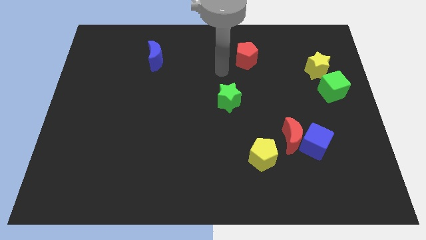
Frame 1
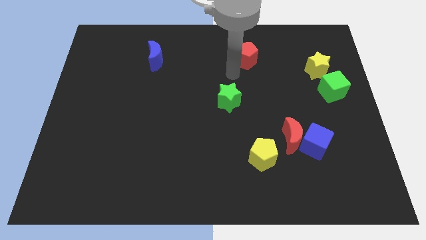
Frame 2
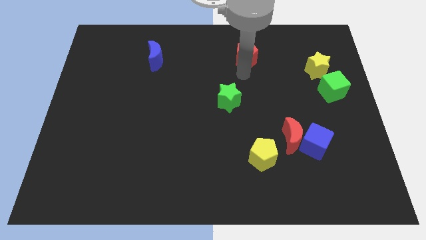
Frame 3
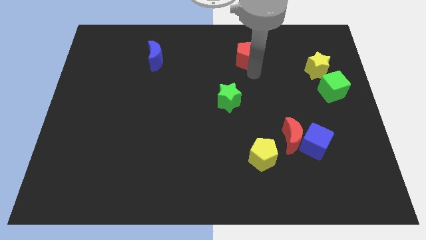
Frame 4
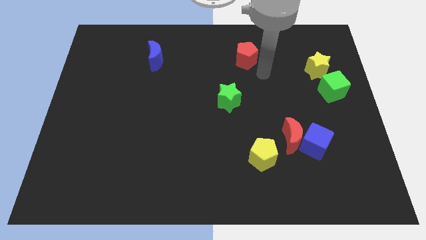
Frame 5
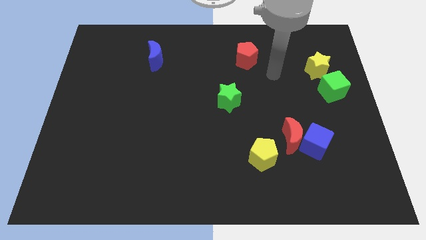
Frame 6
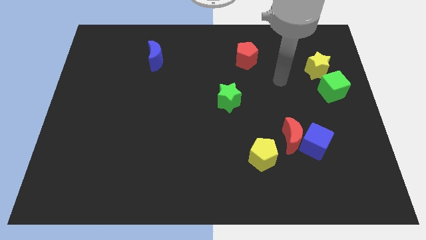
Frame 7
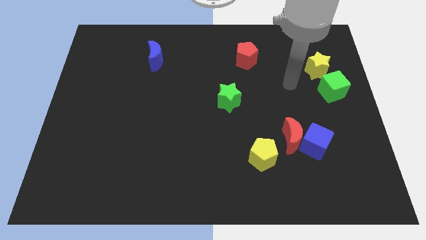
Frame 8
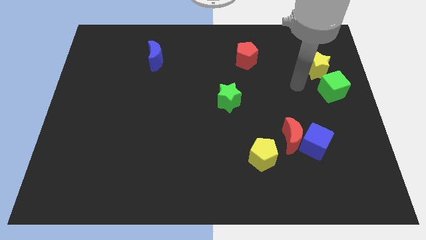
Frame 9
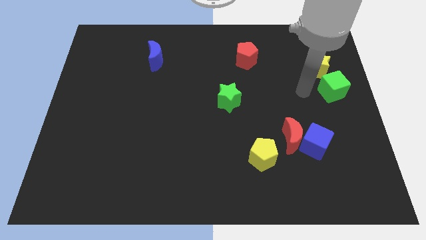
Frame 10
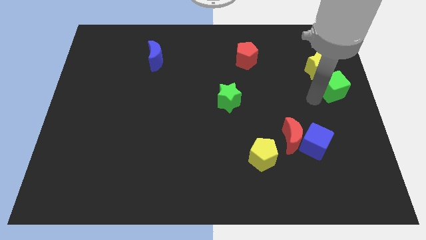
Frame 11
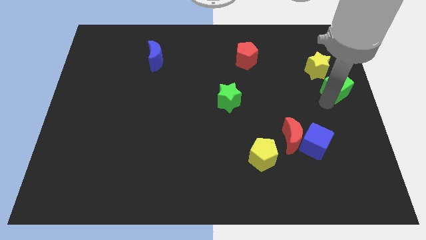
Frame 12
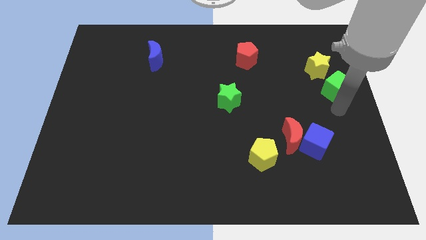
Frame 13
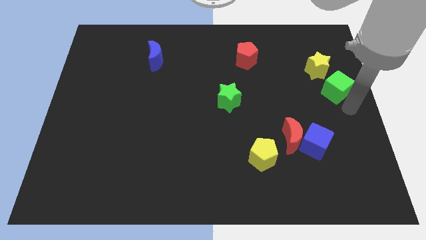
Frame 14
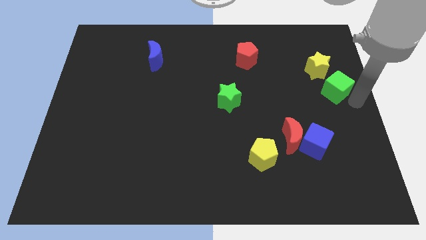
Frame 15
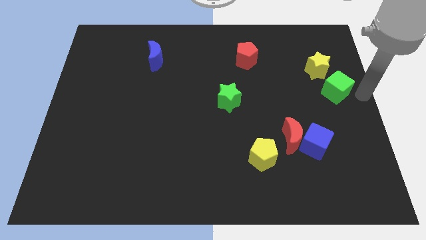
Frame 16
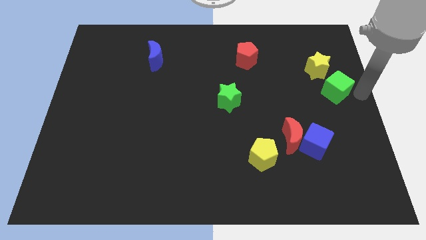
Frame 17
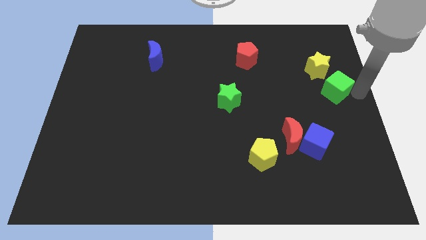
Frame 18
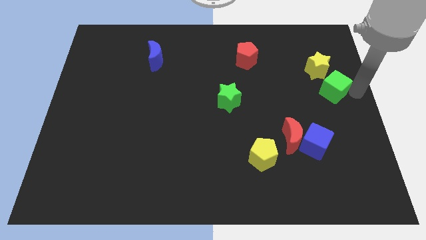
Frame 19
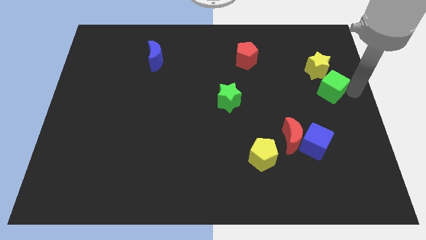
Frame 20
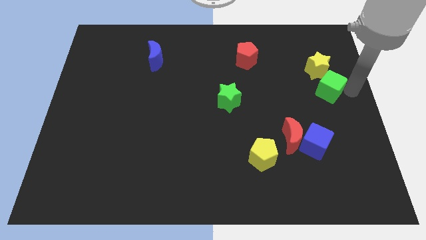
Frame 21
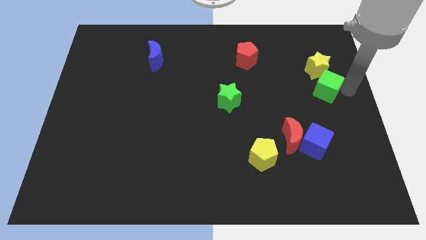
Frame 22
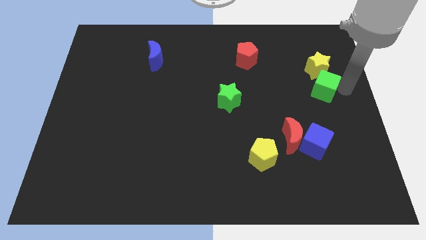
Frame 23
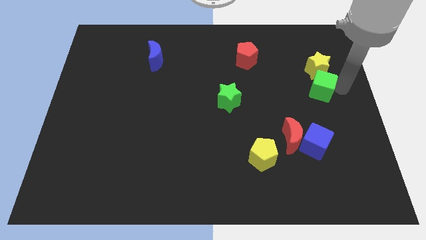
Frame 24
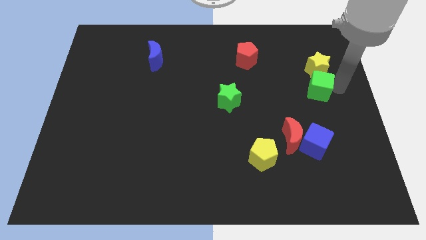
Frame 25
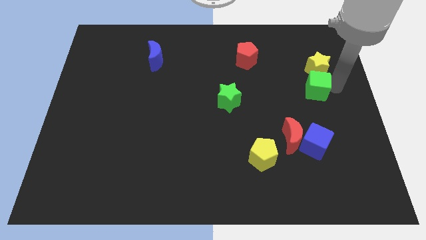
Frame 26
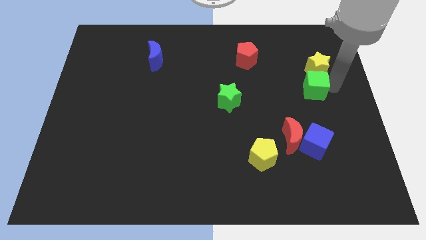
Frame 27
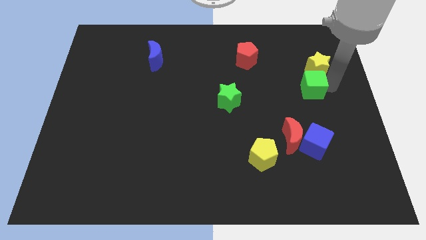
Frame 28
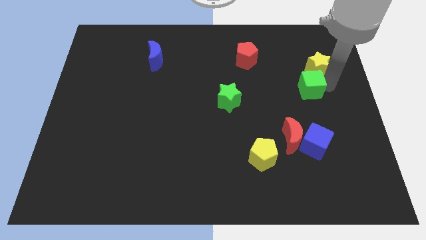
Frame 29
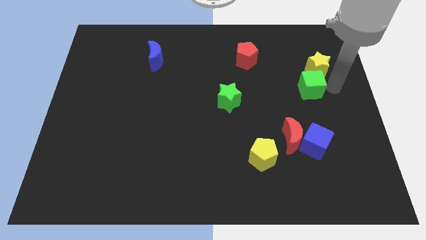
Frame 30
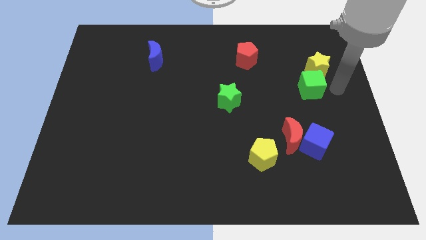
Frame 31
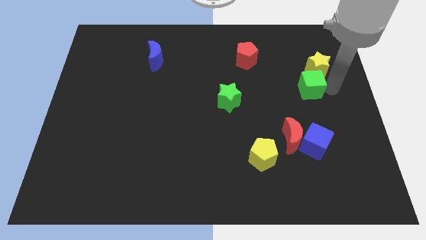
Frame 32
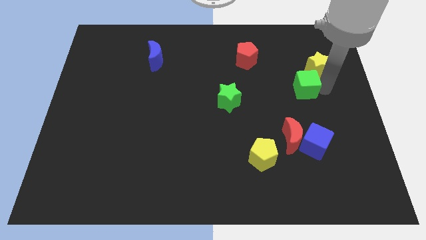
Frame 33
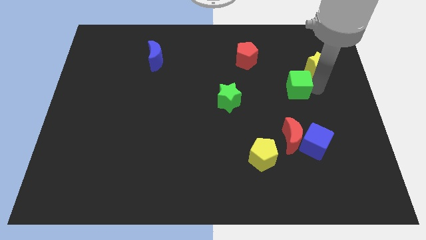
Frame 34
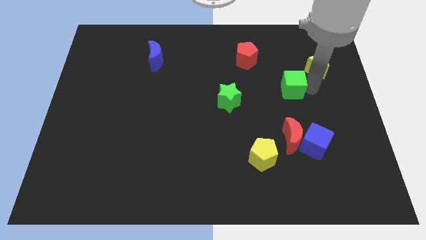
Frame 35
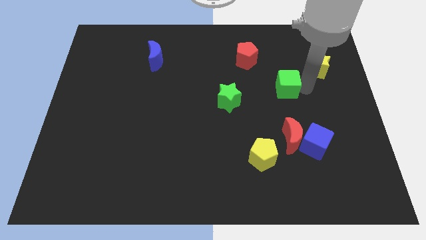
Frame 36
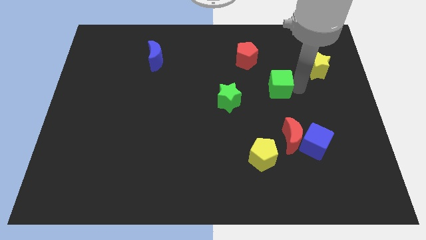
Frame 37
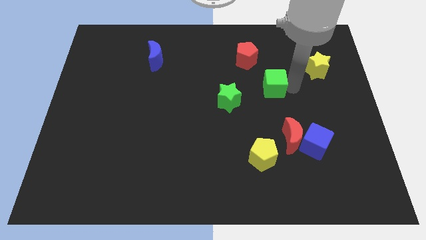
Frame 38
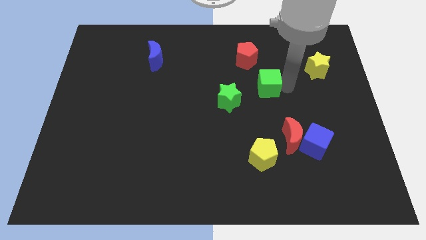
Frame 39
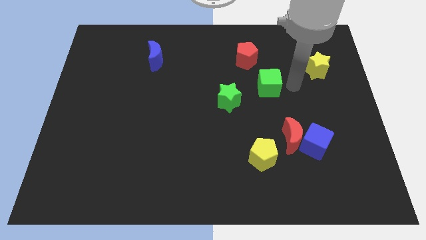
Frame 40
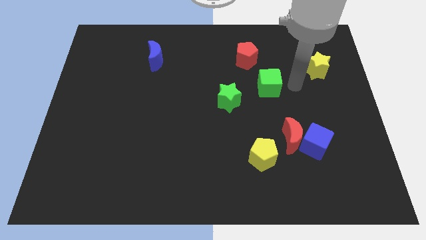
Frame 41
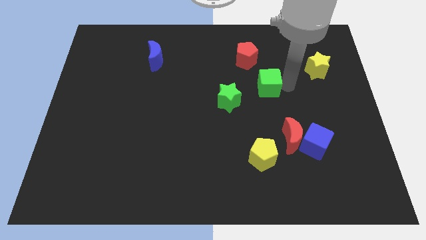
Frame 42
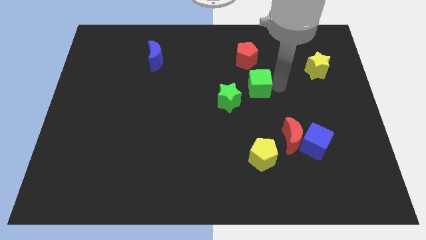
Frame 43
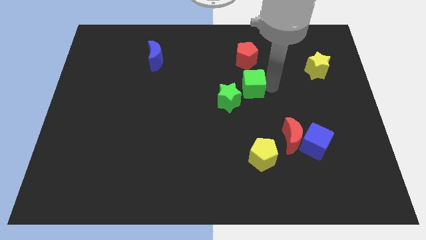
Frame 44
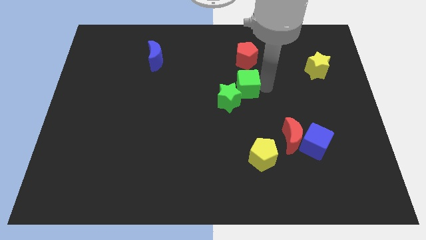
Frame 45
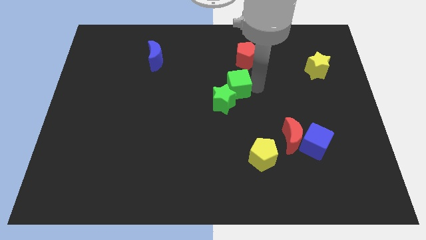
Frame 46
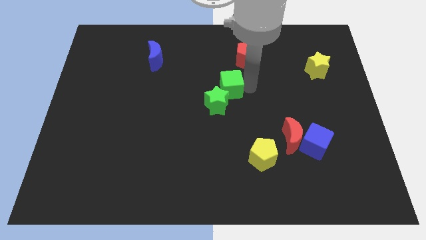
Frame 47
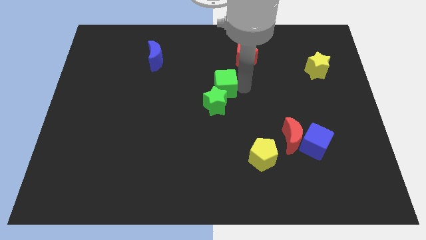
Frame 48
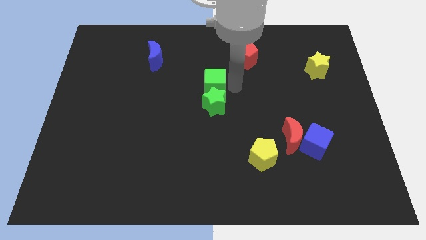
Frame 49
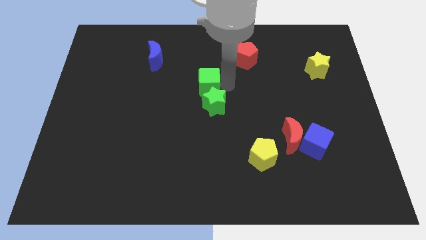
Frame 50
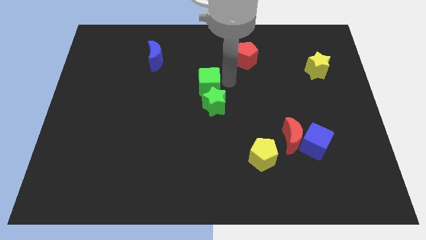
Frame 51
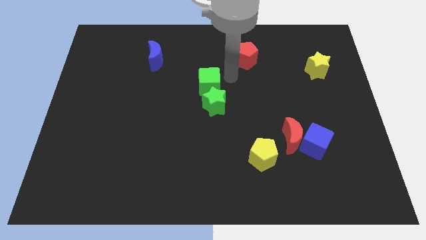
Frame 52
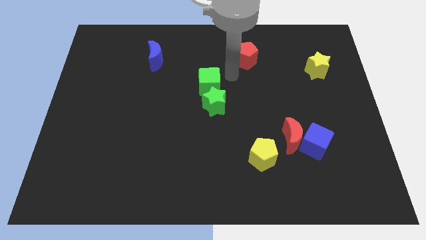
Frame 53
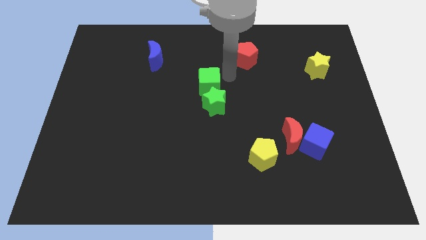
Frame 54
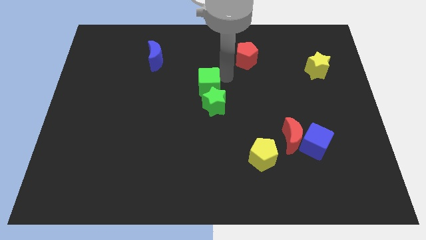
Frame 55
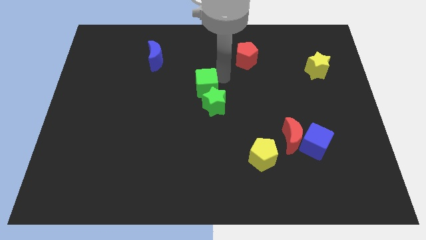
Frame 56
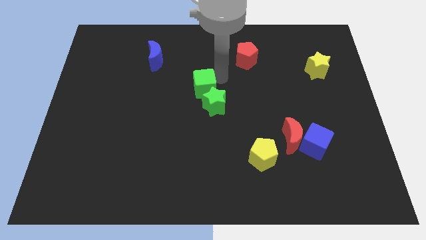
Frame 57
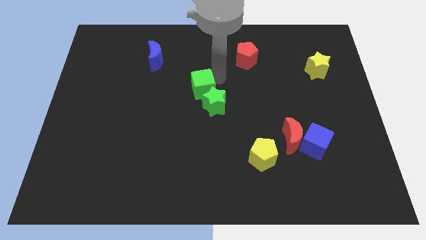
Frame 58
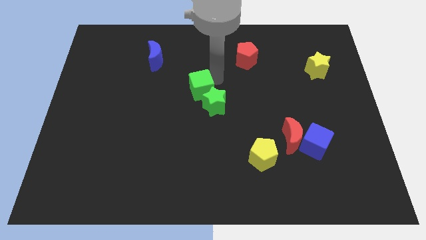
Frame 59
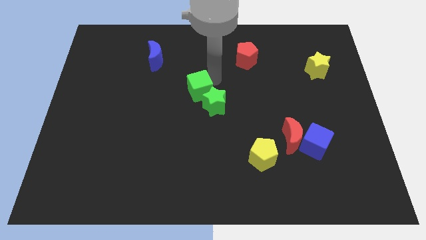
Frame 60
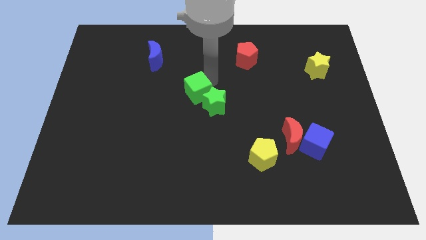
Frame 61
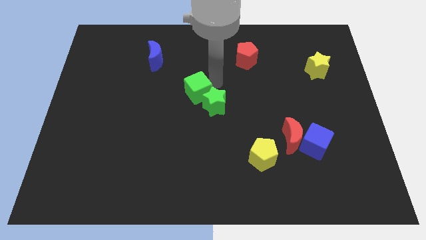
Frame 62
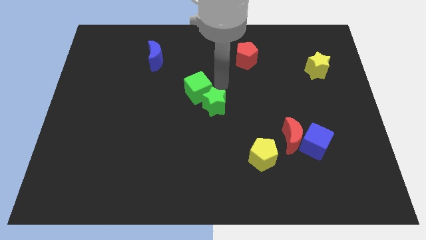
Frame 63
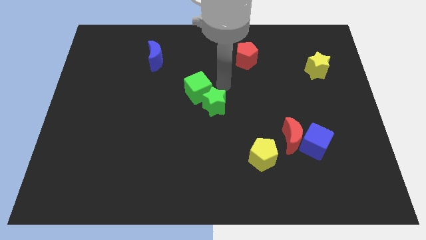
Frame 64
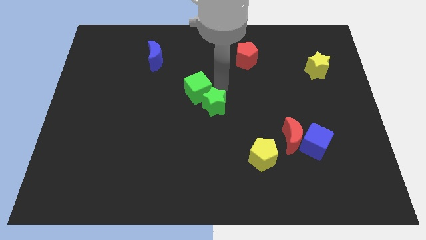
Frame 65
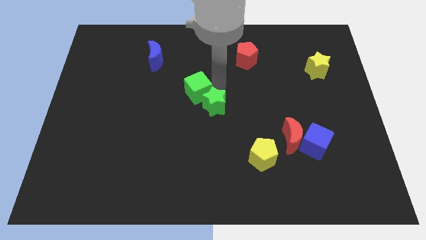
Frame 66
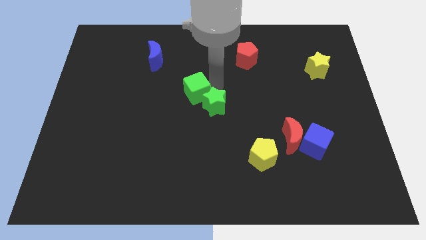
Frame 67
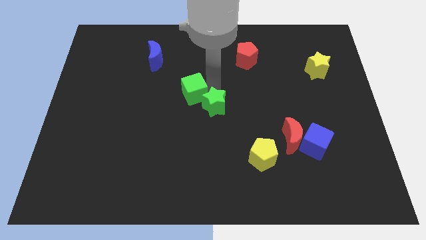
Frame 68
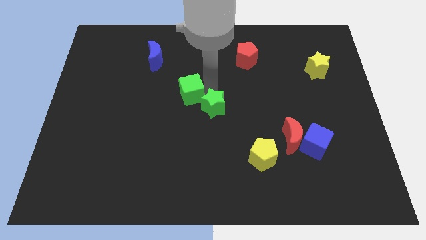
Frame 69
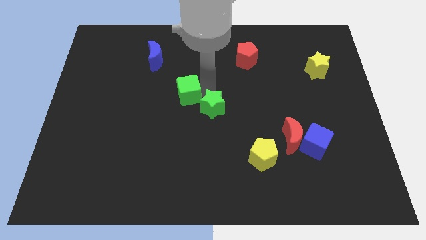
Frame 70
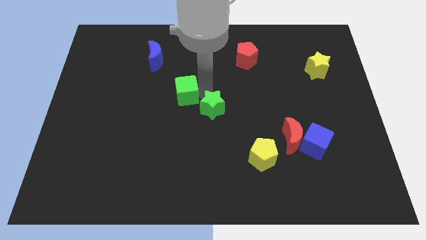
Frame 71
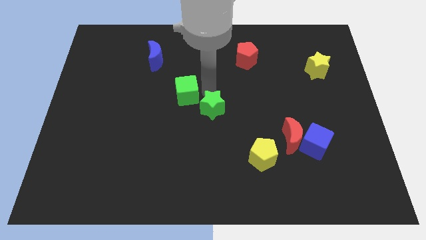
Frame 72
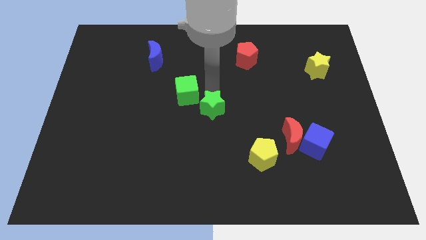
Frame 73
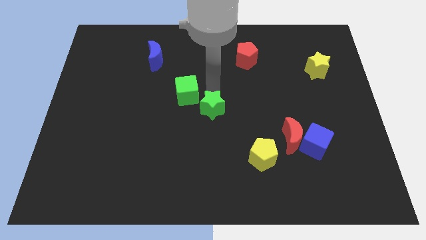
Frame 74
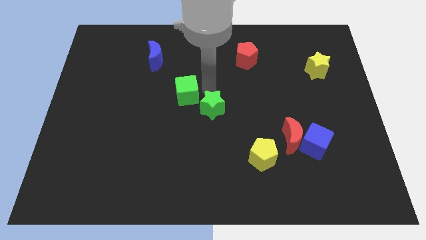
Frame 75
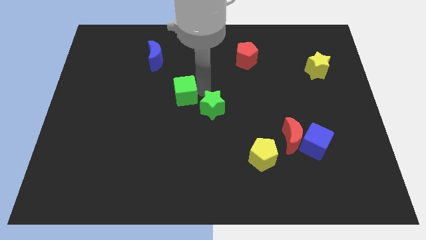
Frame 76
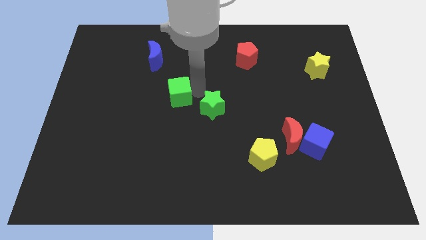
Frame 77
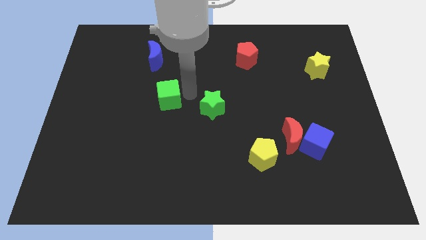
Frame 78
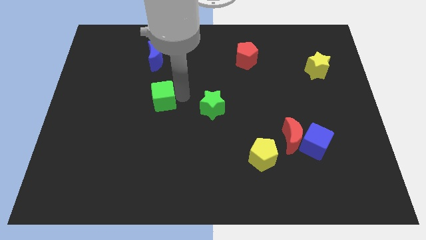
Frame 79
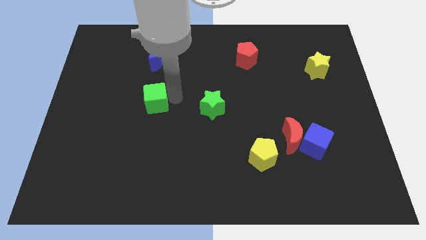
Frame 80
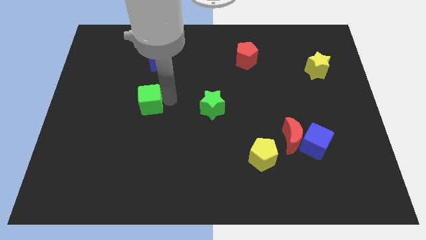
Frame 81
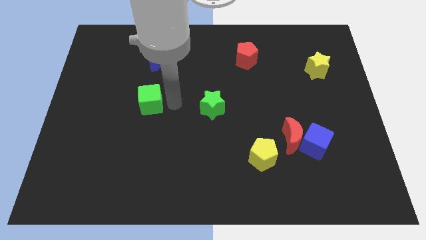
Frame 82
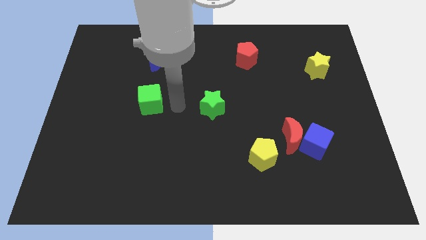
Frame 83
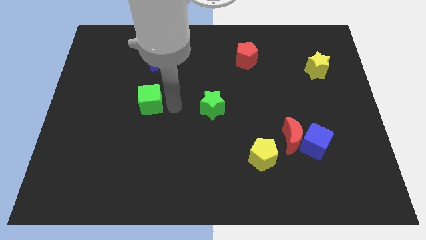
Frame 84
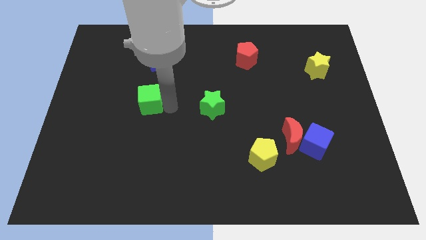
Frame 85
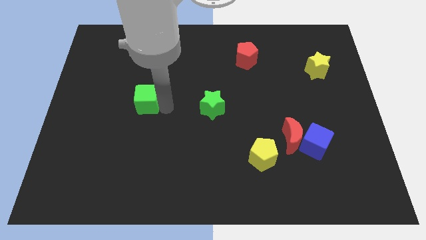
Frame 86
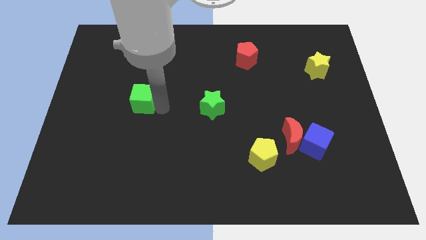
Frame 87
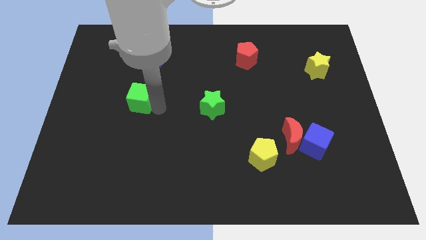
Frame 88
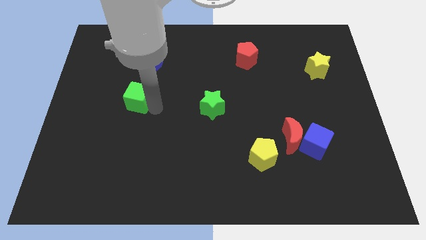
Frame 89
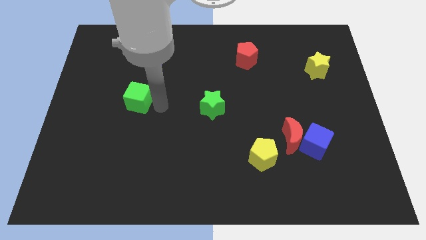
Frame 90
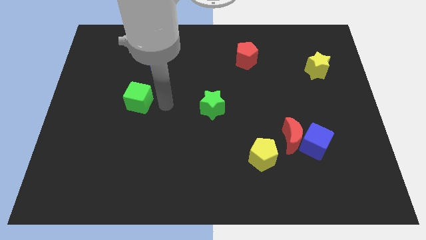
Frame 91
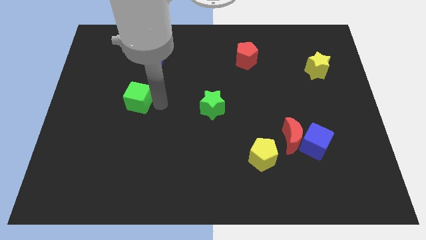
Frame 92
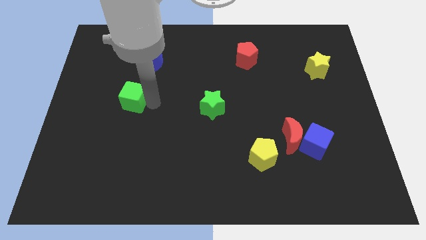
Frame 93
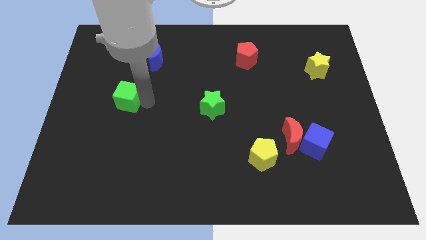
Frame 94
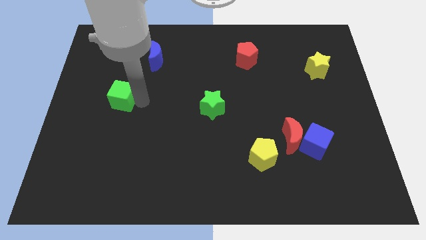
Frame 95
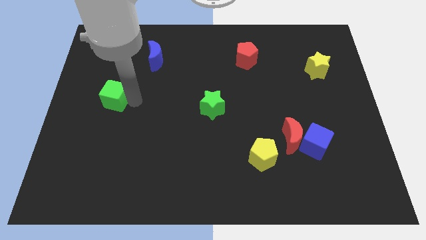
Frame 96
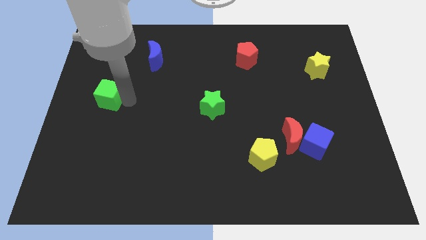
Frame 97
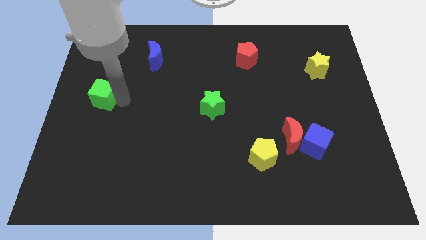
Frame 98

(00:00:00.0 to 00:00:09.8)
slide the green cube to the center left
